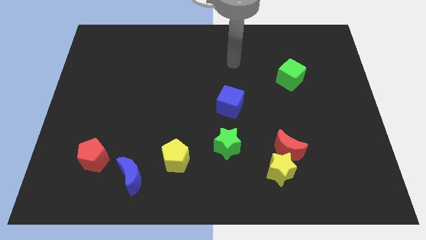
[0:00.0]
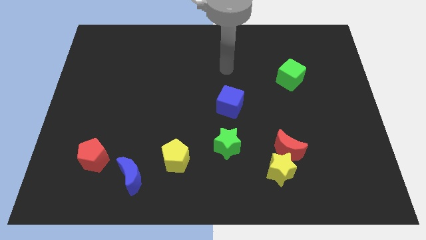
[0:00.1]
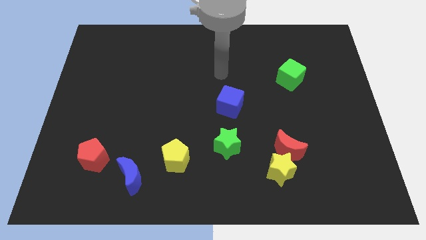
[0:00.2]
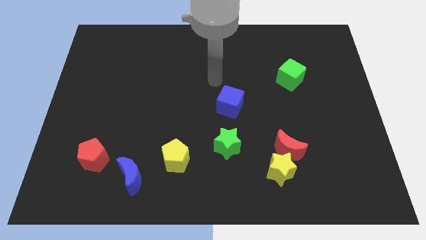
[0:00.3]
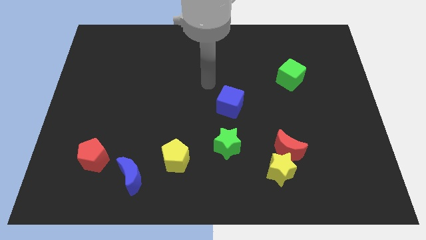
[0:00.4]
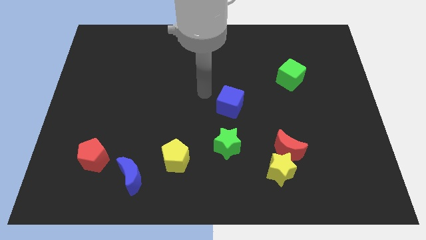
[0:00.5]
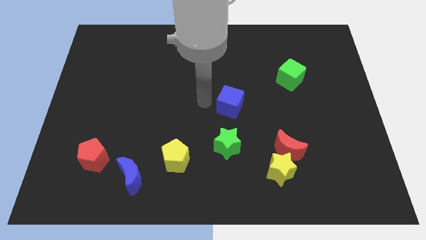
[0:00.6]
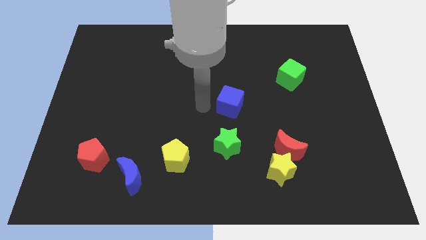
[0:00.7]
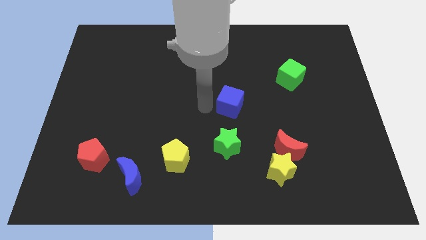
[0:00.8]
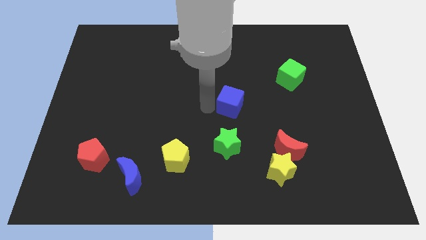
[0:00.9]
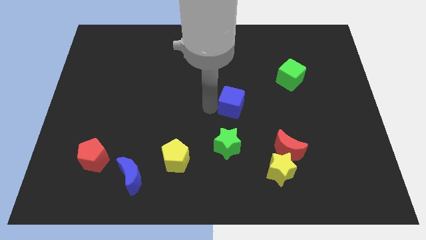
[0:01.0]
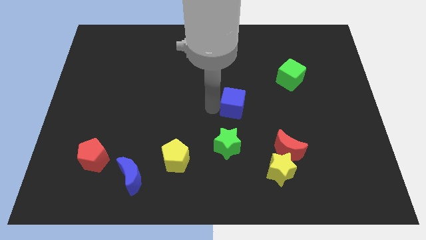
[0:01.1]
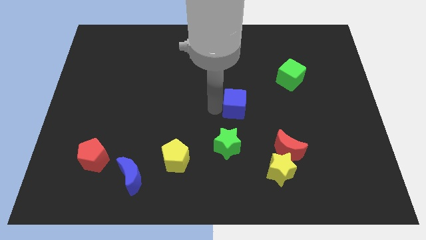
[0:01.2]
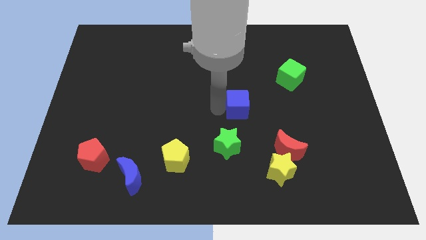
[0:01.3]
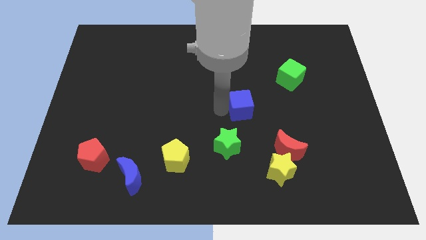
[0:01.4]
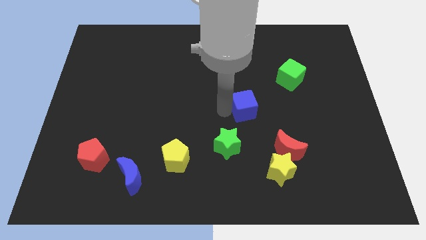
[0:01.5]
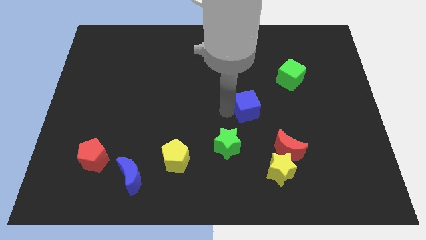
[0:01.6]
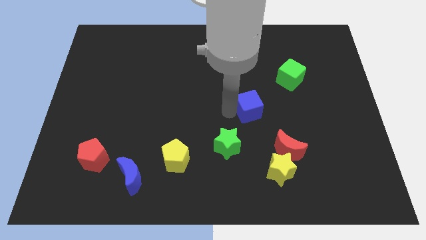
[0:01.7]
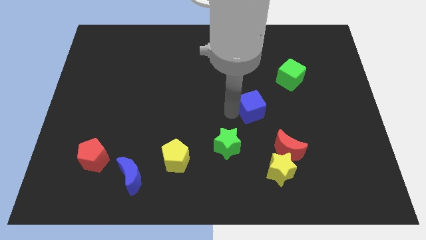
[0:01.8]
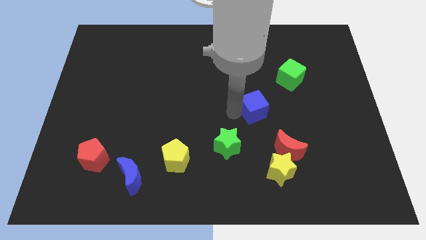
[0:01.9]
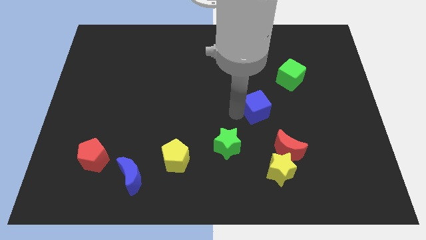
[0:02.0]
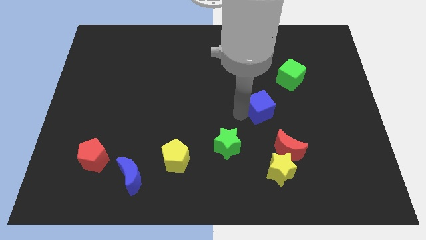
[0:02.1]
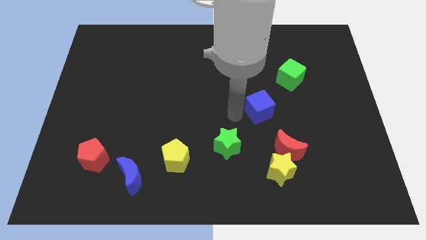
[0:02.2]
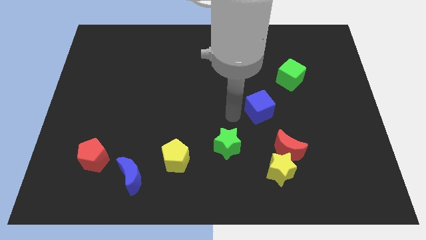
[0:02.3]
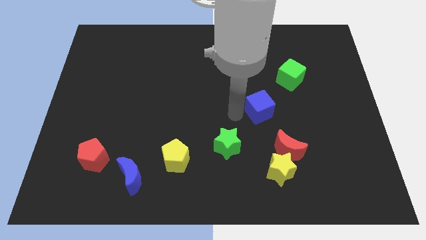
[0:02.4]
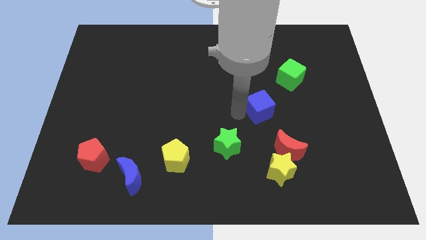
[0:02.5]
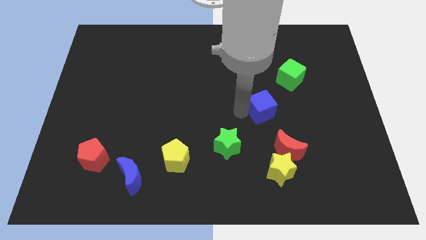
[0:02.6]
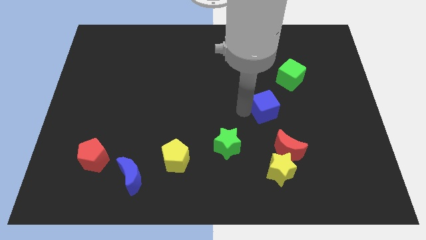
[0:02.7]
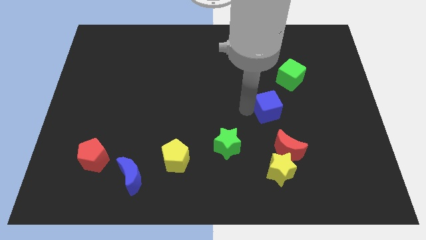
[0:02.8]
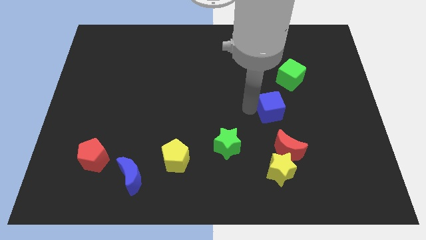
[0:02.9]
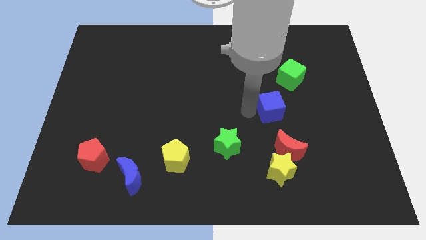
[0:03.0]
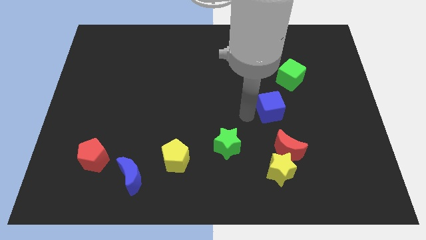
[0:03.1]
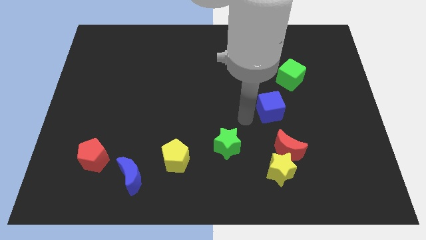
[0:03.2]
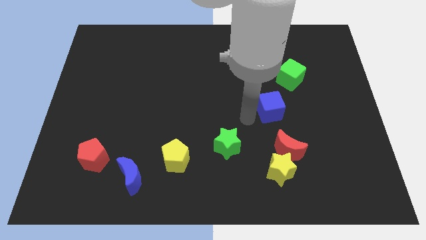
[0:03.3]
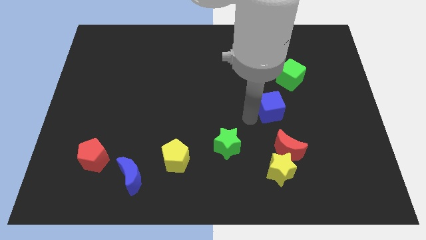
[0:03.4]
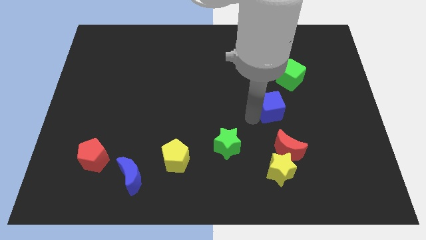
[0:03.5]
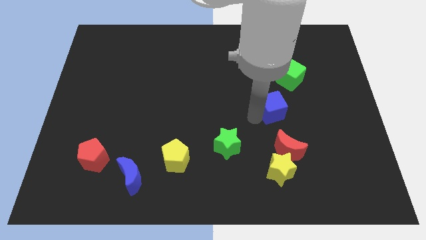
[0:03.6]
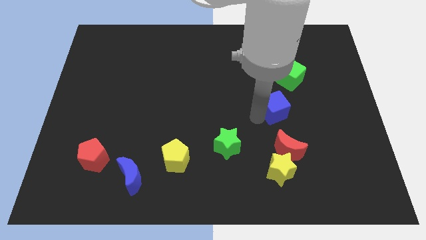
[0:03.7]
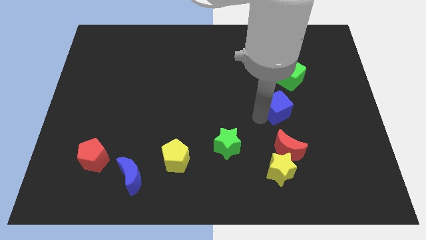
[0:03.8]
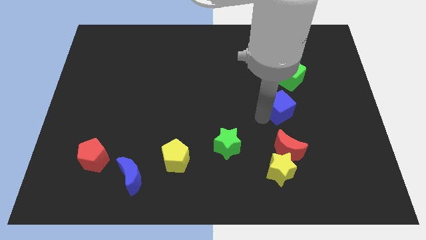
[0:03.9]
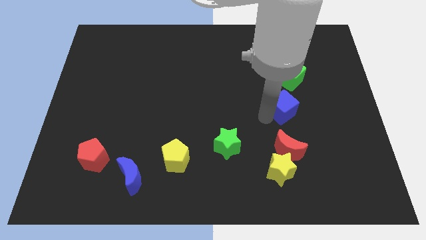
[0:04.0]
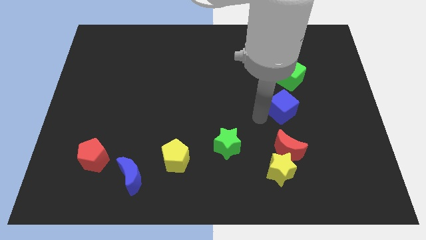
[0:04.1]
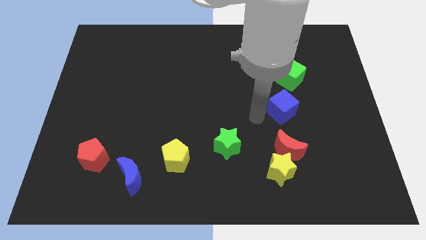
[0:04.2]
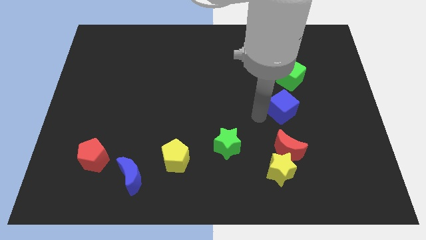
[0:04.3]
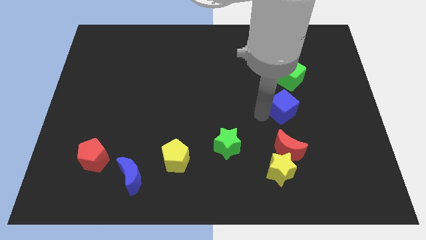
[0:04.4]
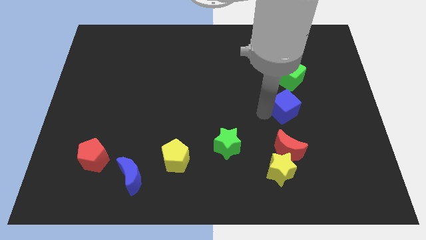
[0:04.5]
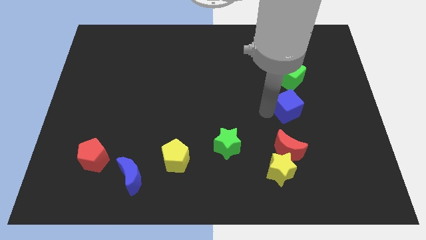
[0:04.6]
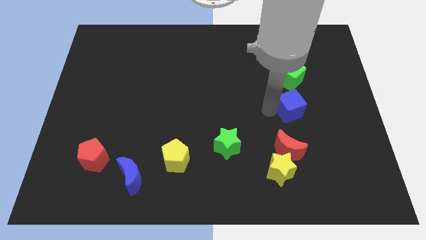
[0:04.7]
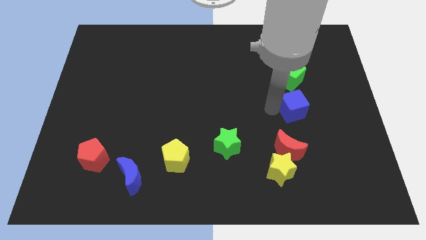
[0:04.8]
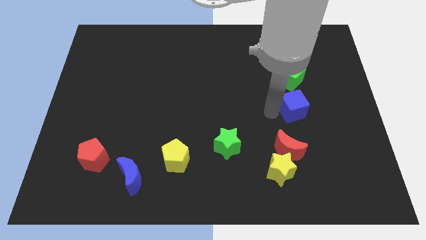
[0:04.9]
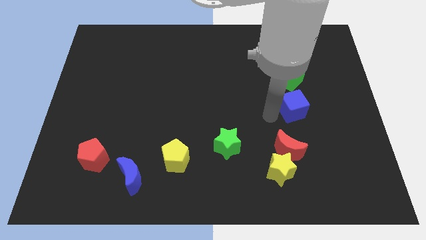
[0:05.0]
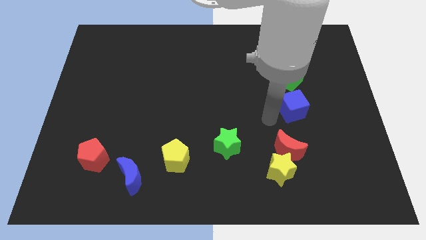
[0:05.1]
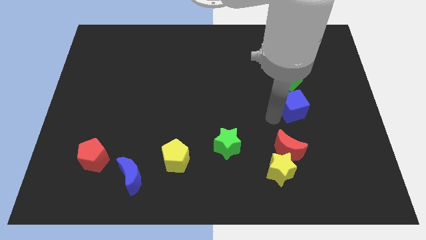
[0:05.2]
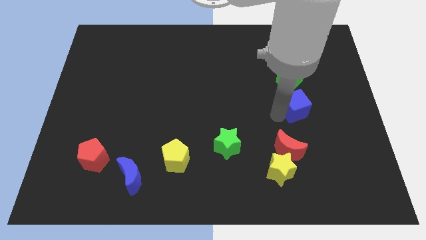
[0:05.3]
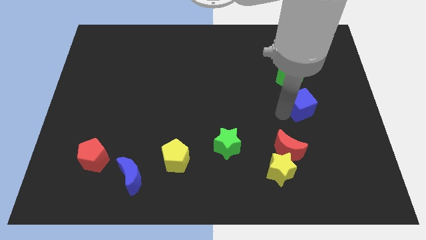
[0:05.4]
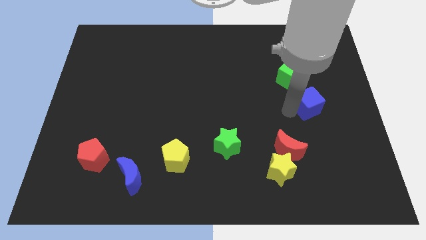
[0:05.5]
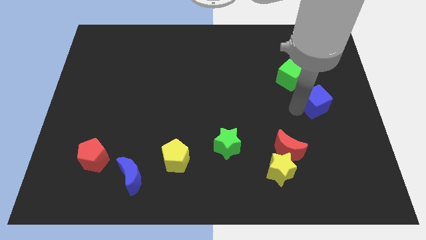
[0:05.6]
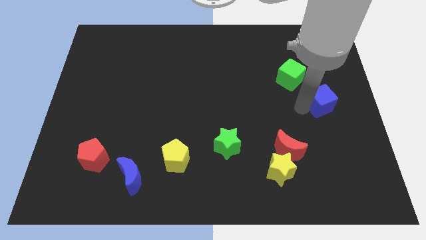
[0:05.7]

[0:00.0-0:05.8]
put the blue cube to the right side of the board

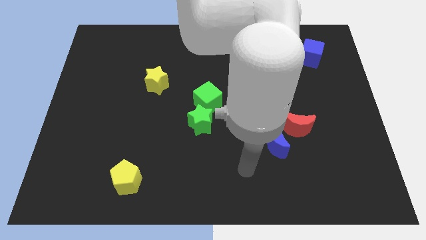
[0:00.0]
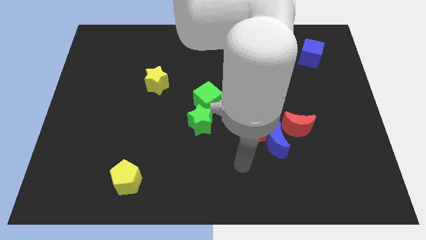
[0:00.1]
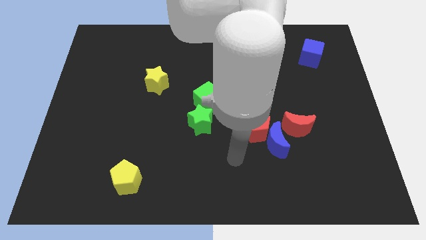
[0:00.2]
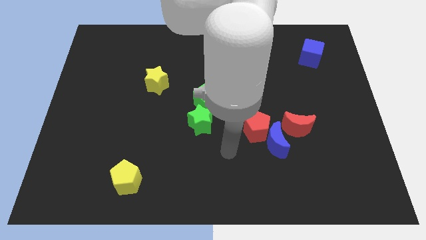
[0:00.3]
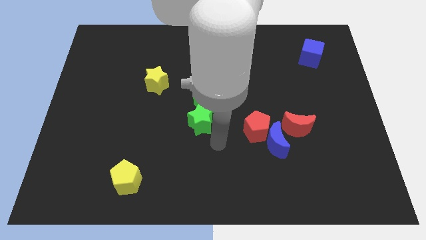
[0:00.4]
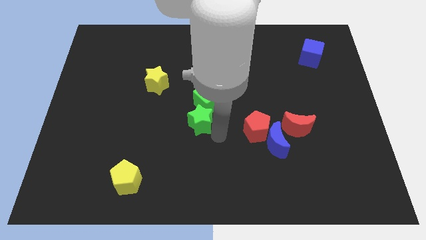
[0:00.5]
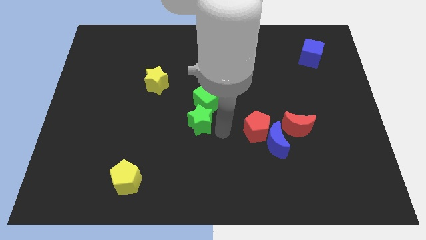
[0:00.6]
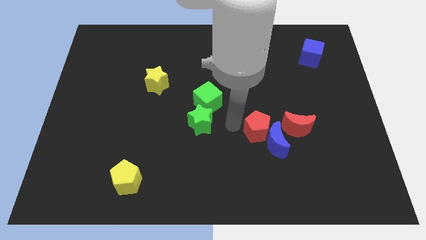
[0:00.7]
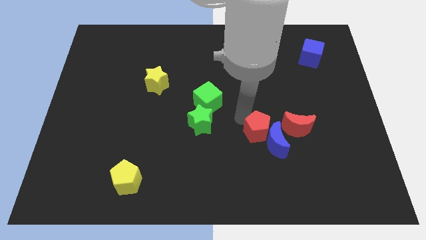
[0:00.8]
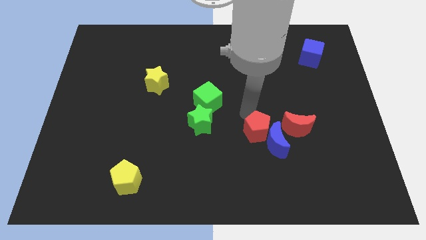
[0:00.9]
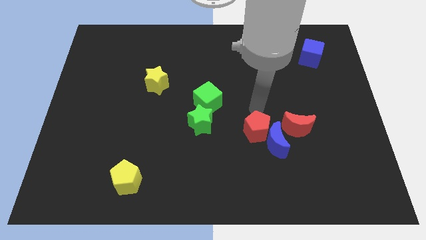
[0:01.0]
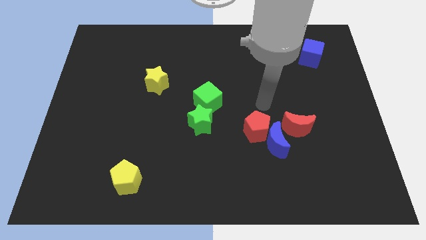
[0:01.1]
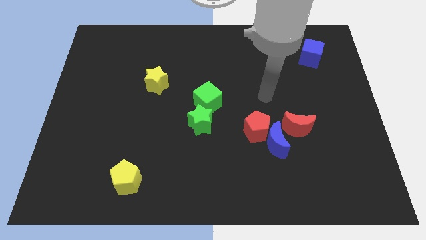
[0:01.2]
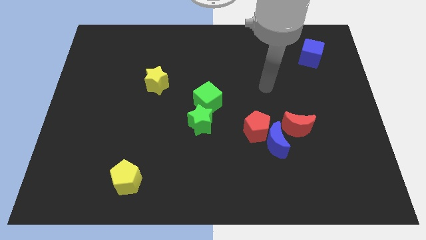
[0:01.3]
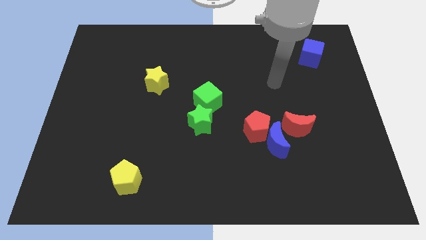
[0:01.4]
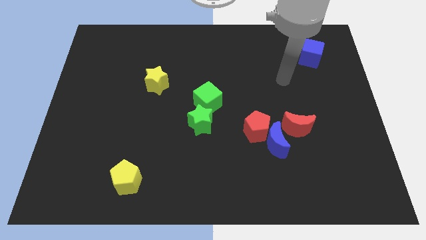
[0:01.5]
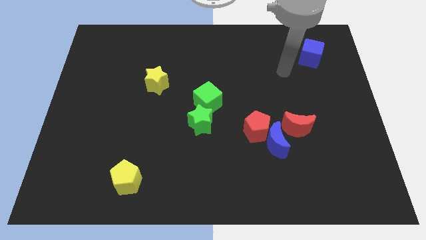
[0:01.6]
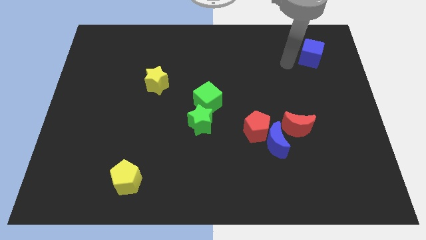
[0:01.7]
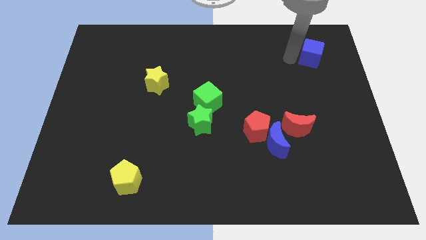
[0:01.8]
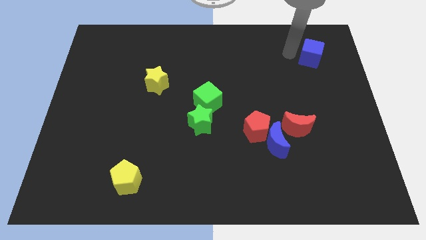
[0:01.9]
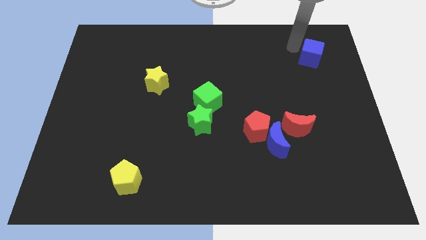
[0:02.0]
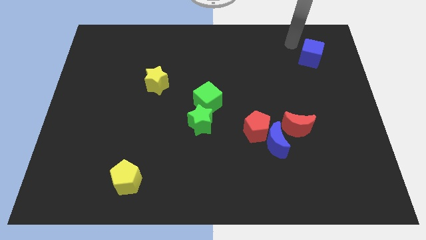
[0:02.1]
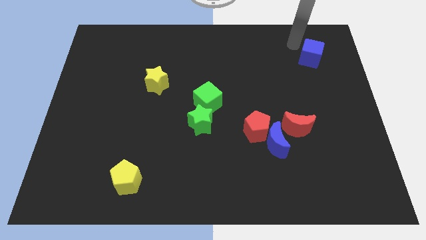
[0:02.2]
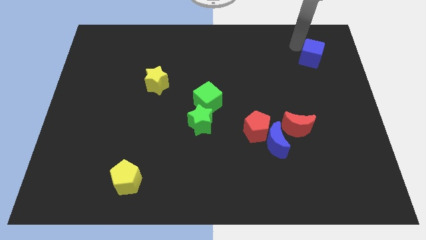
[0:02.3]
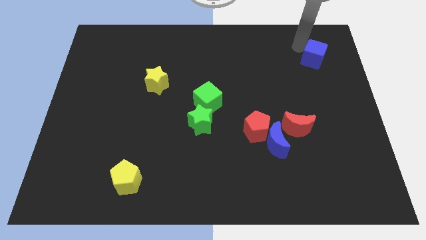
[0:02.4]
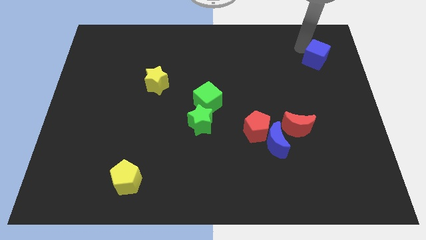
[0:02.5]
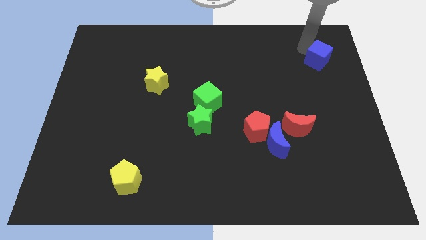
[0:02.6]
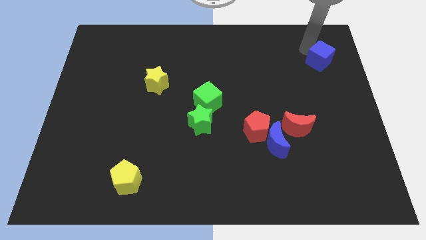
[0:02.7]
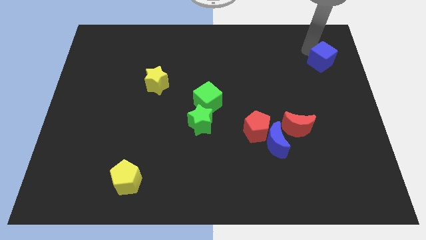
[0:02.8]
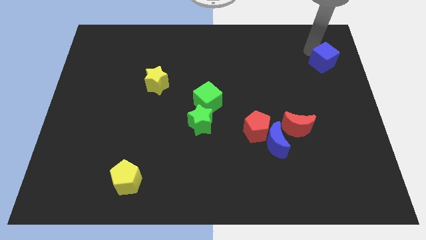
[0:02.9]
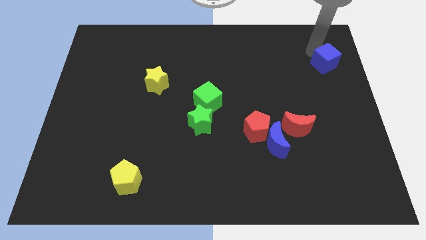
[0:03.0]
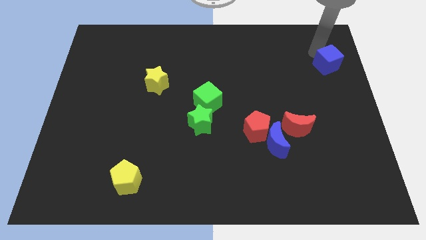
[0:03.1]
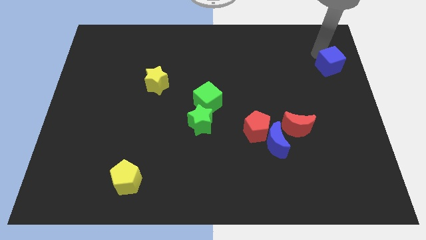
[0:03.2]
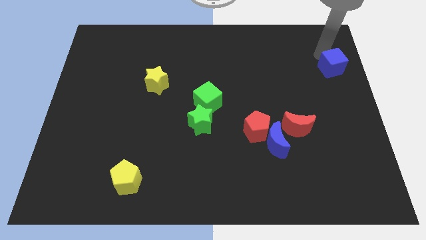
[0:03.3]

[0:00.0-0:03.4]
move the blue cube to the right side of the board
